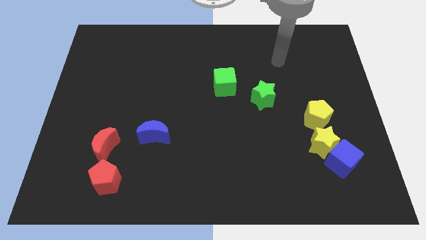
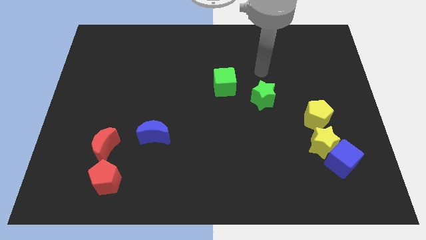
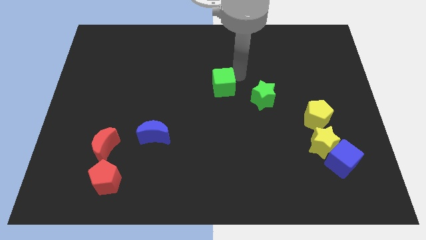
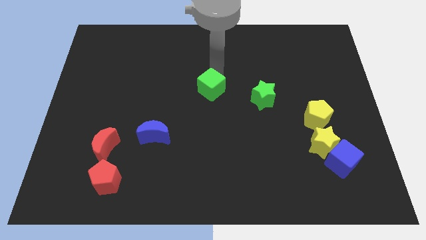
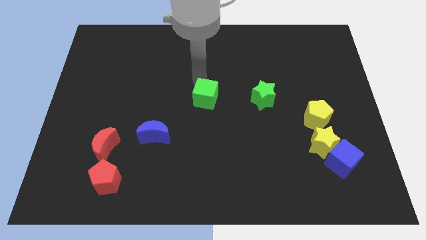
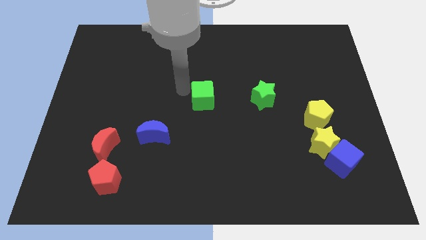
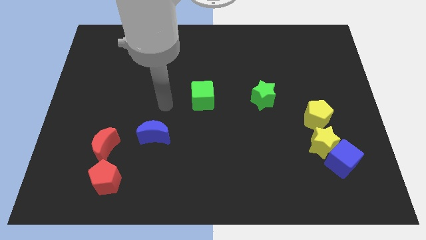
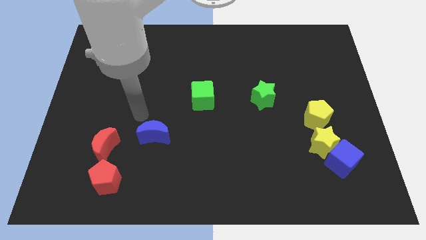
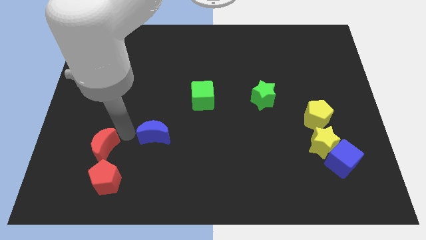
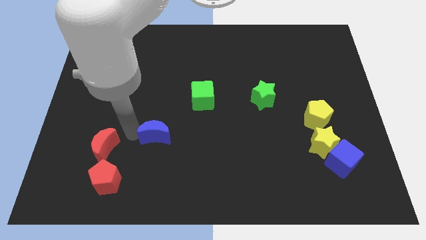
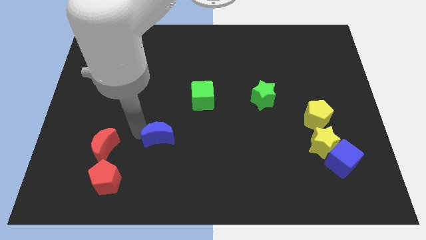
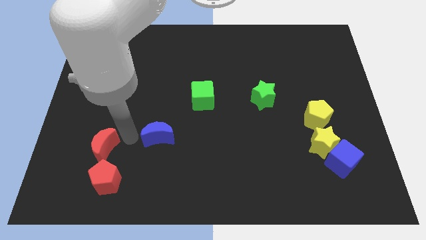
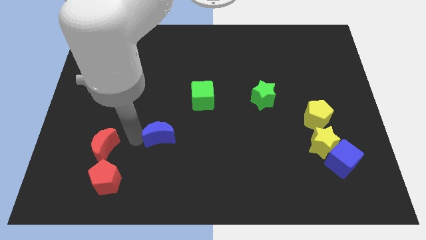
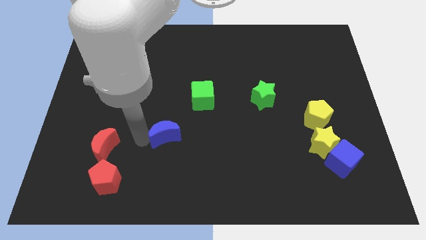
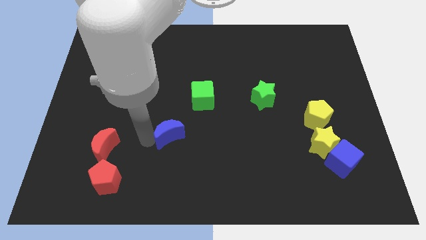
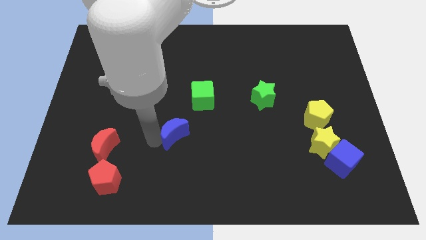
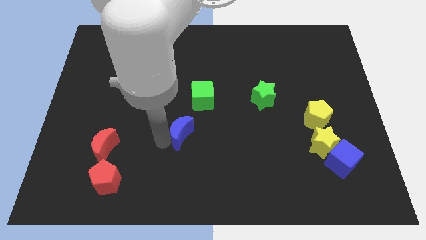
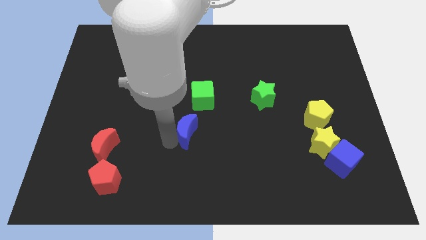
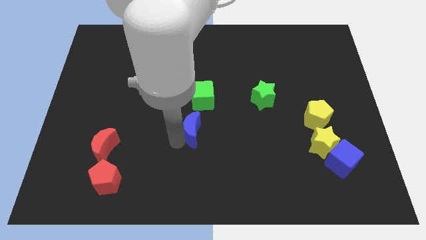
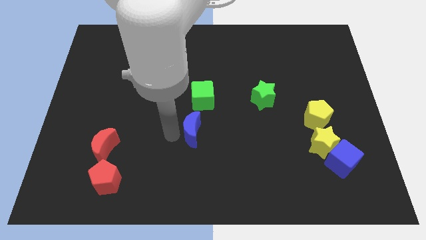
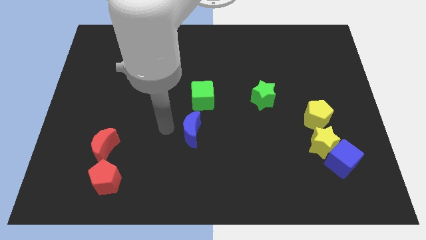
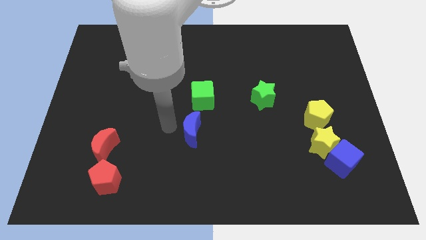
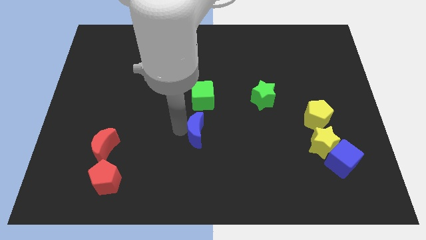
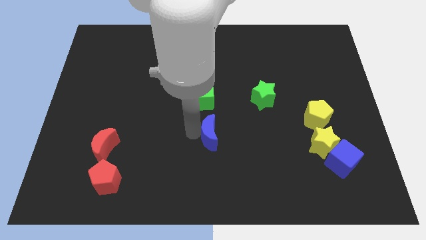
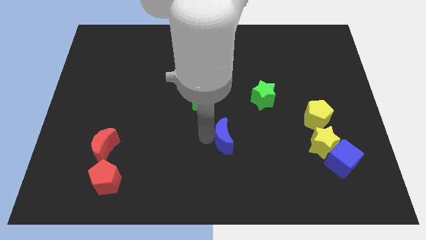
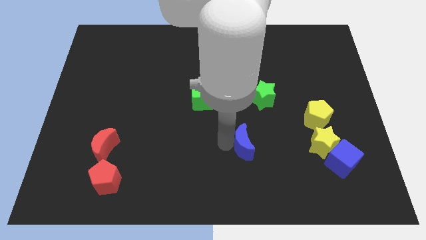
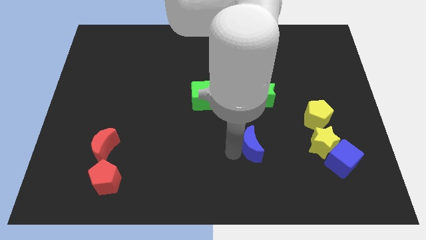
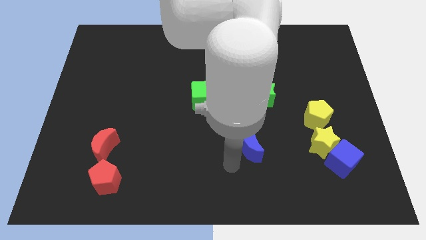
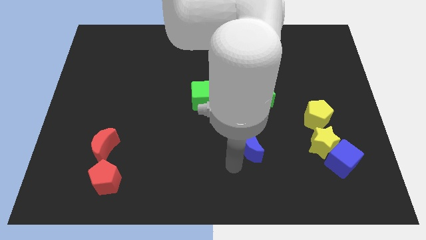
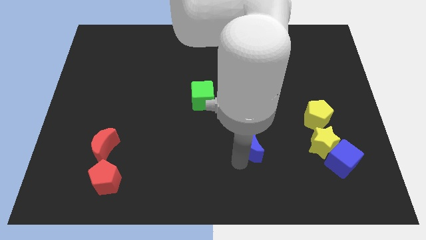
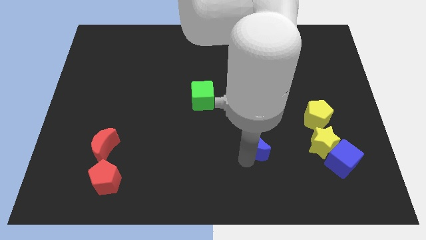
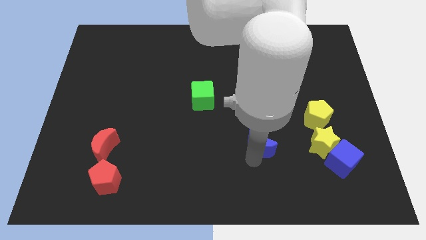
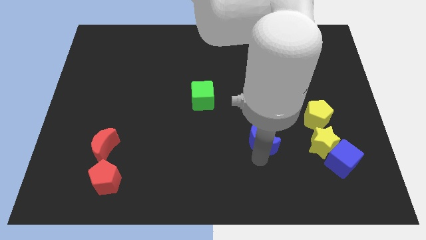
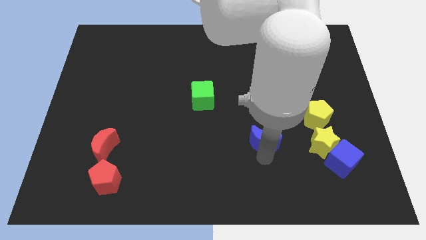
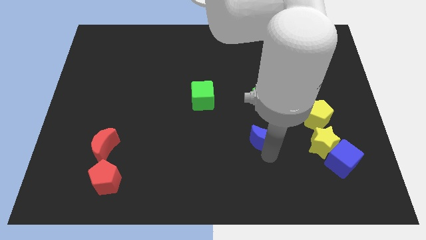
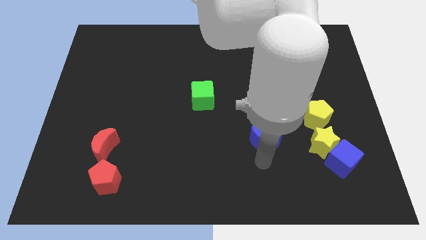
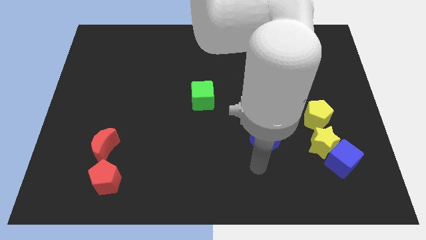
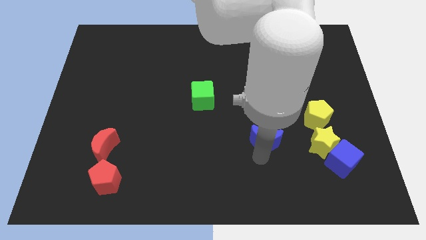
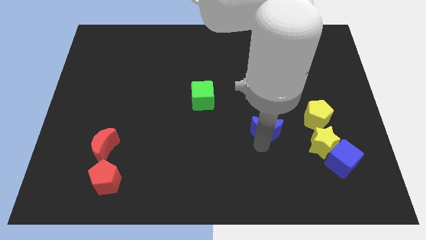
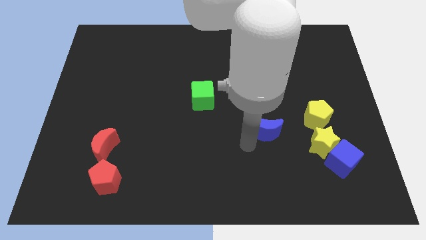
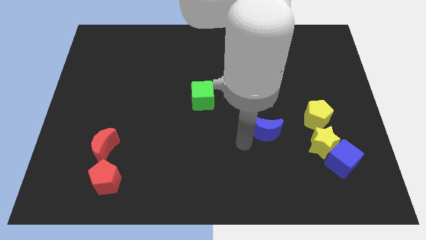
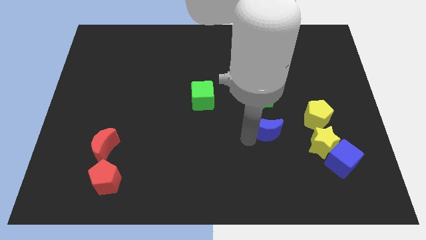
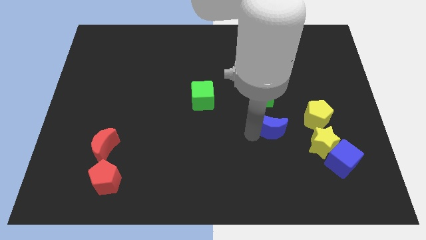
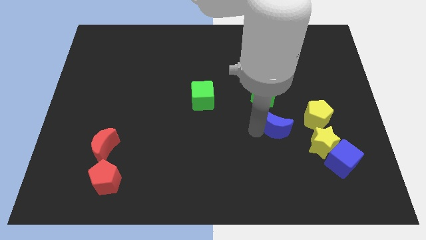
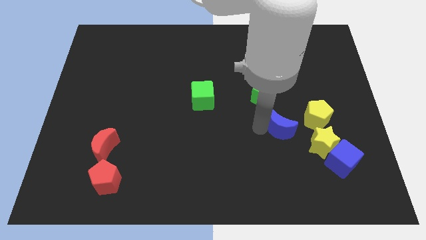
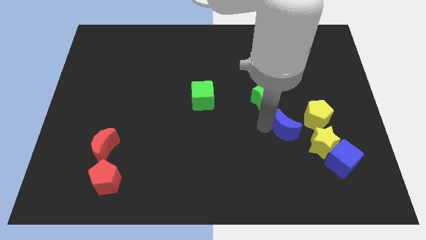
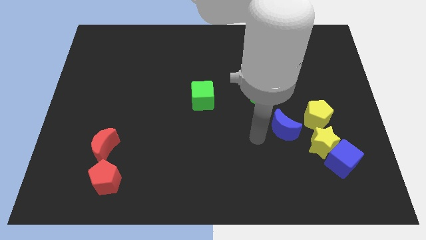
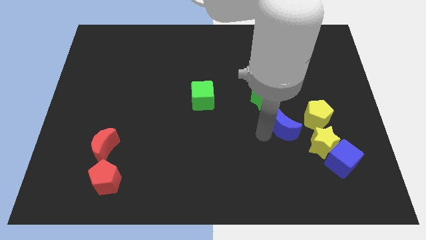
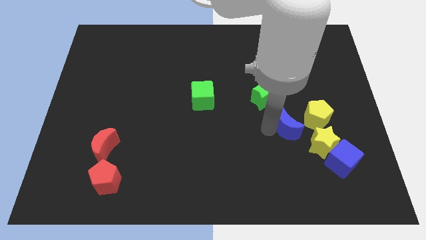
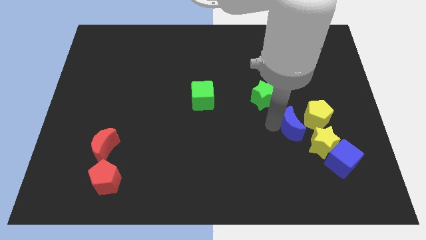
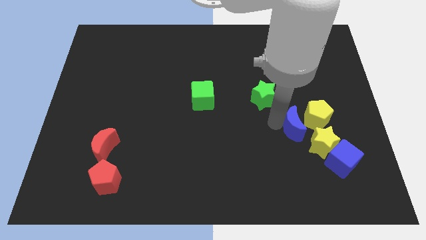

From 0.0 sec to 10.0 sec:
put the blue moon to the yellow pentagon

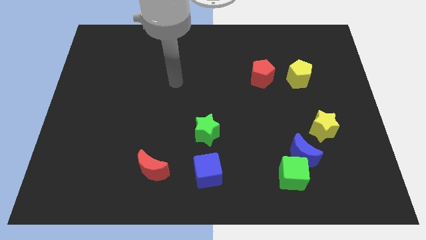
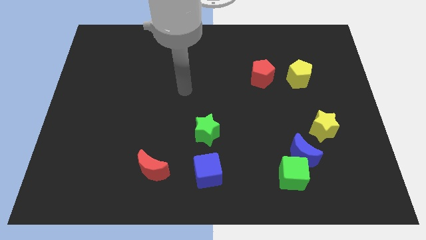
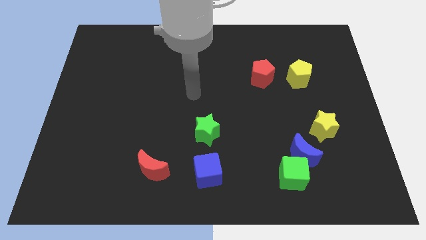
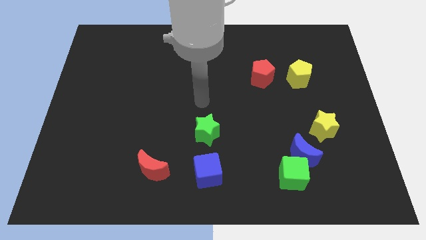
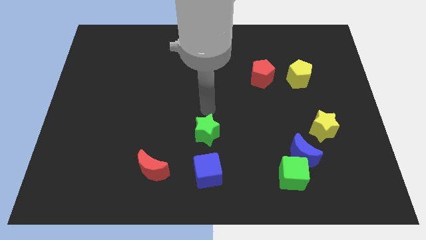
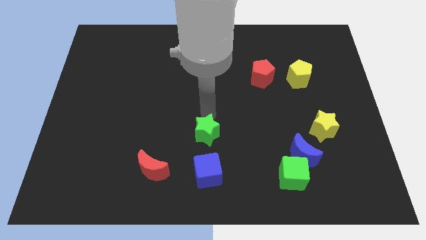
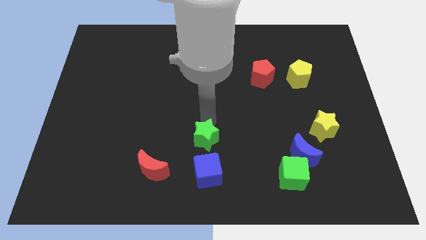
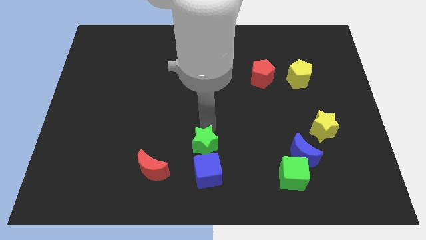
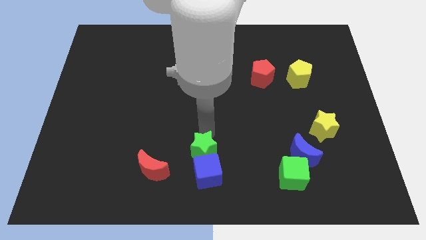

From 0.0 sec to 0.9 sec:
slide the green star towards the blue cube
